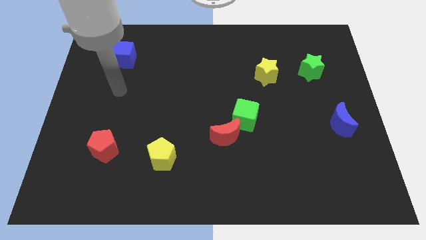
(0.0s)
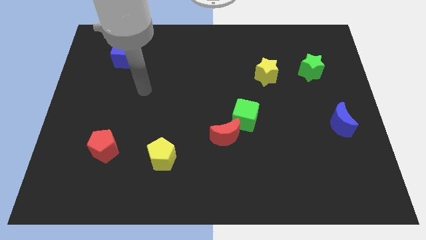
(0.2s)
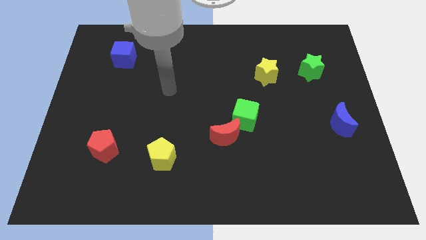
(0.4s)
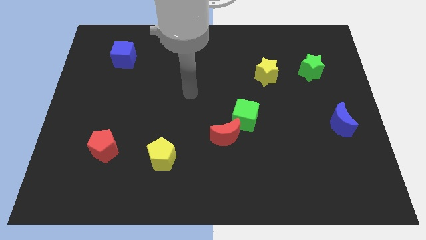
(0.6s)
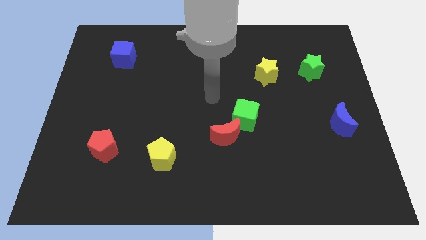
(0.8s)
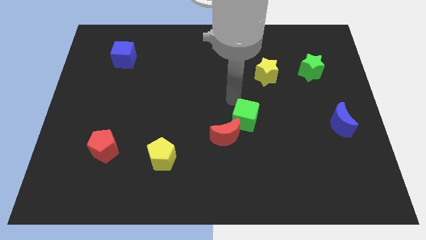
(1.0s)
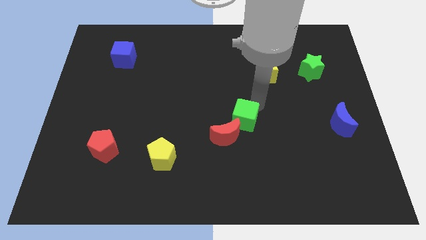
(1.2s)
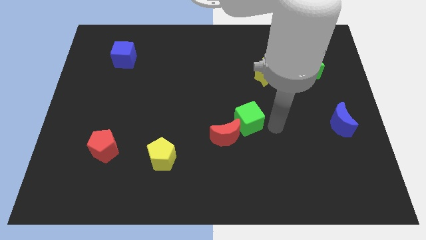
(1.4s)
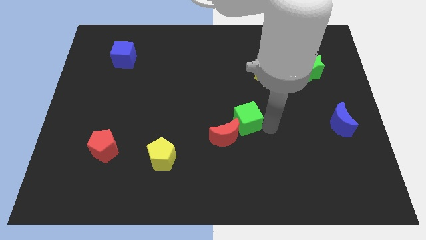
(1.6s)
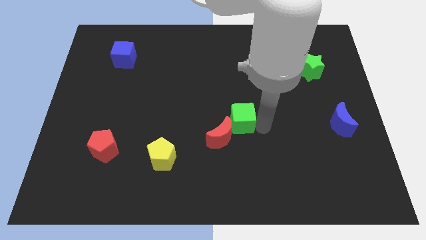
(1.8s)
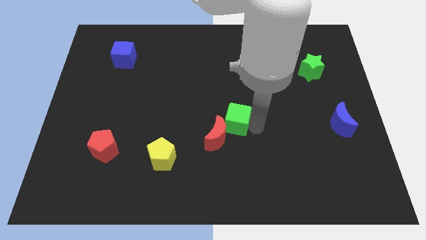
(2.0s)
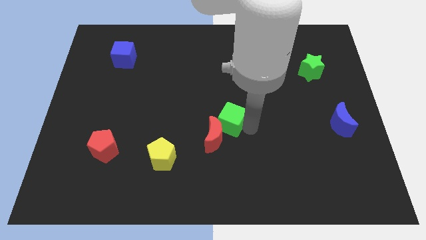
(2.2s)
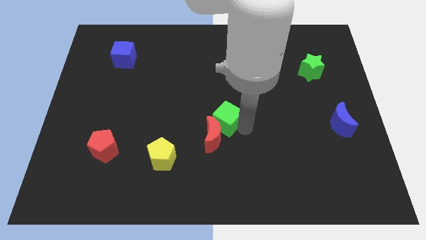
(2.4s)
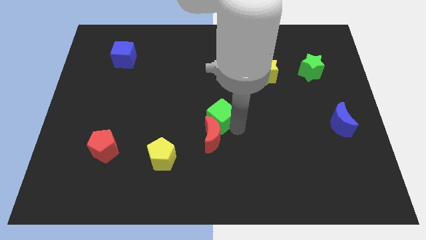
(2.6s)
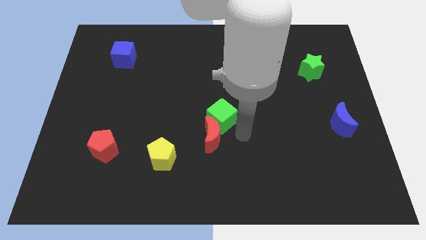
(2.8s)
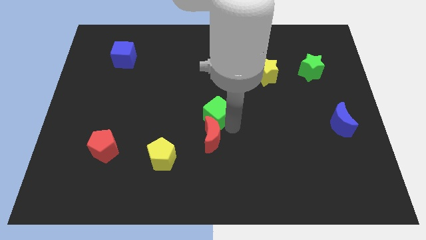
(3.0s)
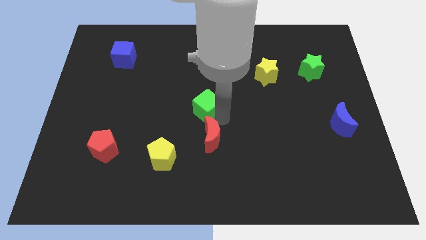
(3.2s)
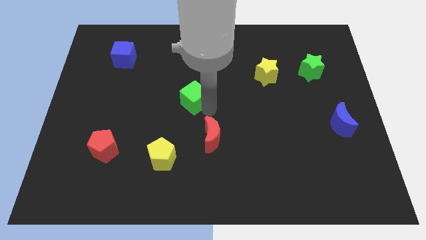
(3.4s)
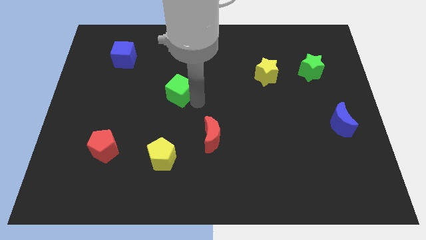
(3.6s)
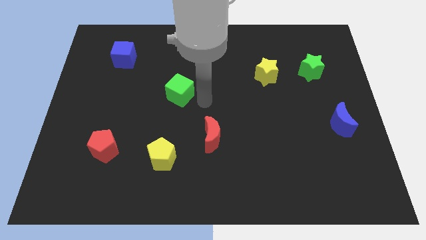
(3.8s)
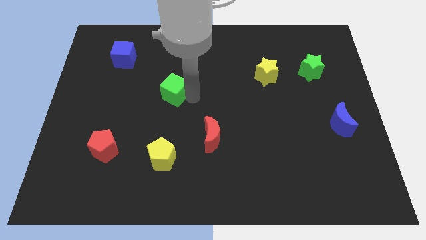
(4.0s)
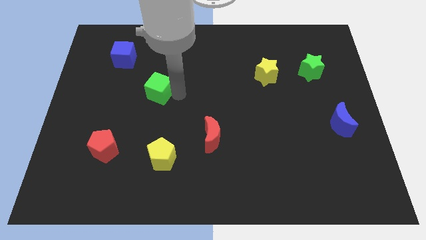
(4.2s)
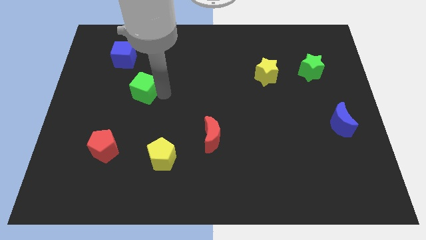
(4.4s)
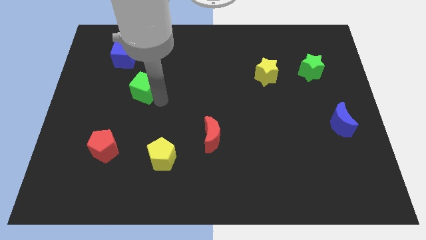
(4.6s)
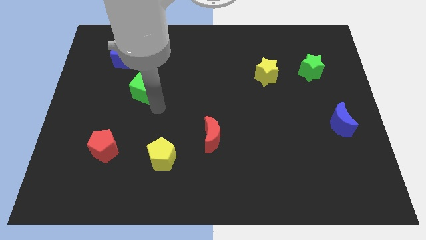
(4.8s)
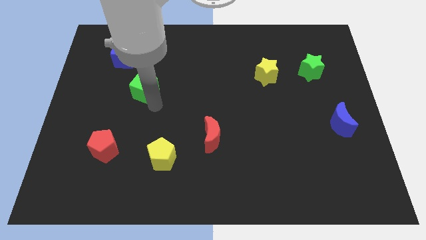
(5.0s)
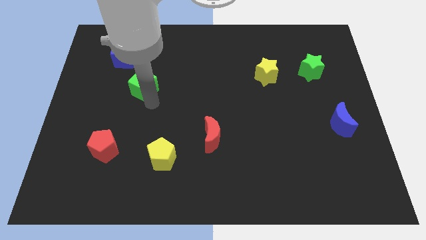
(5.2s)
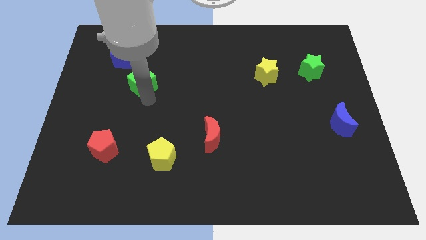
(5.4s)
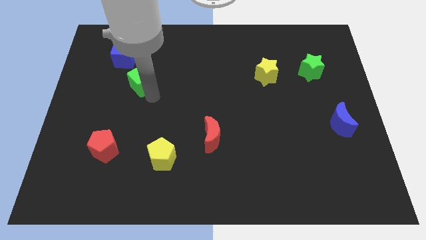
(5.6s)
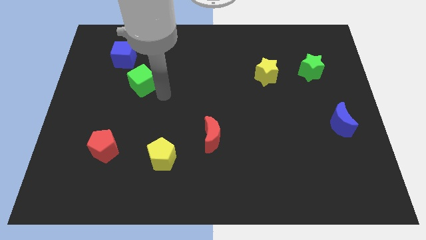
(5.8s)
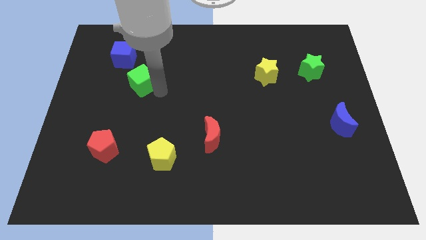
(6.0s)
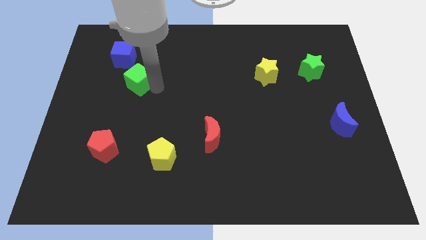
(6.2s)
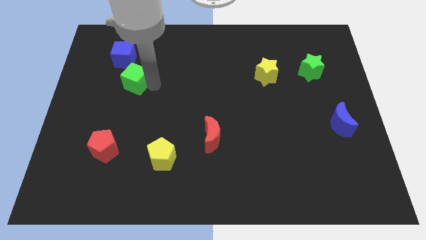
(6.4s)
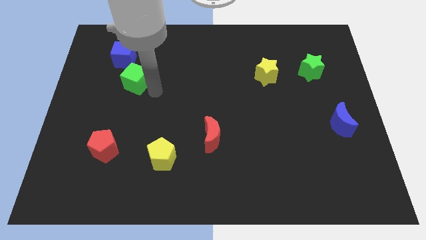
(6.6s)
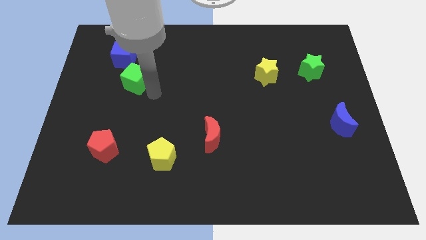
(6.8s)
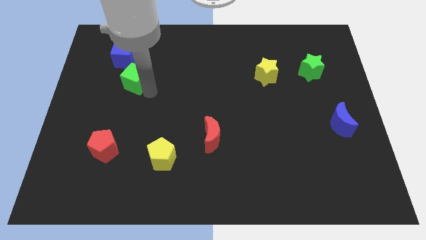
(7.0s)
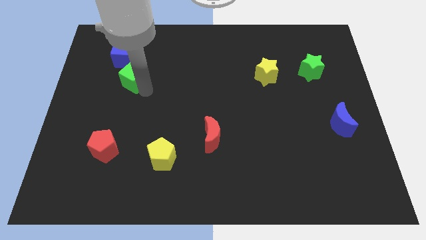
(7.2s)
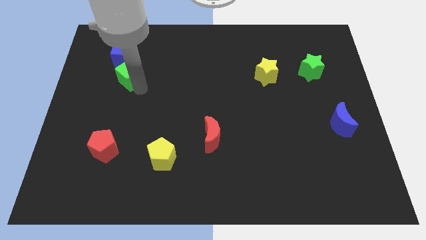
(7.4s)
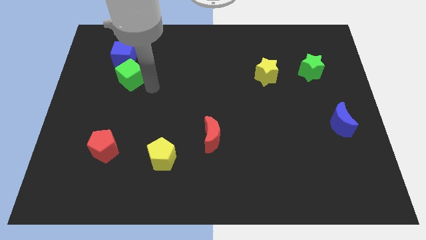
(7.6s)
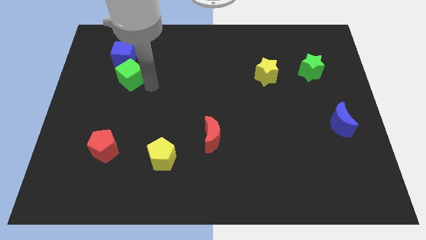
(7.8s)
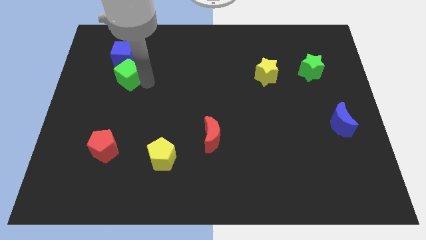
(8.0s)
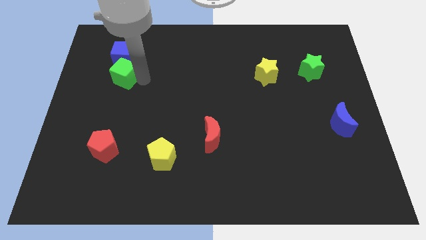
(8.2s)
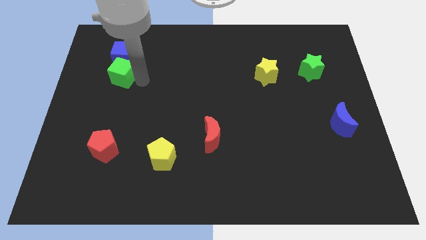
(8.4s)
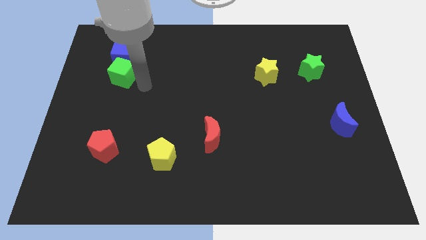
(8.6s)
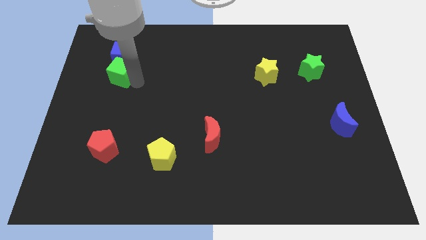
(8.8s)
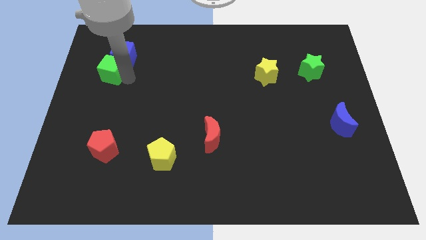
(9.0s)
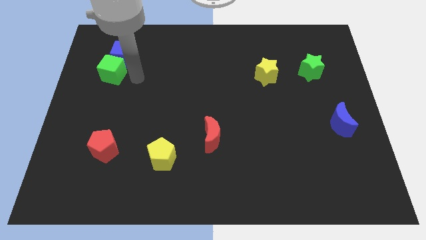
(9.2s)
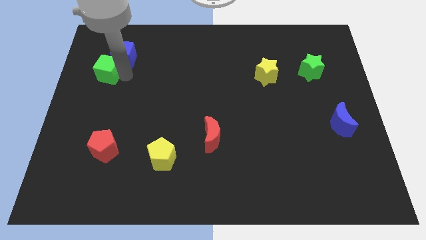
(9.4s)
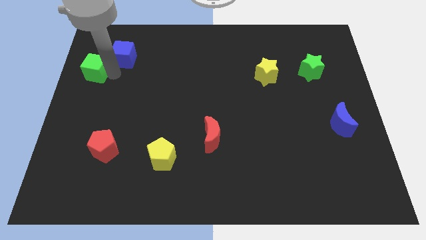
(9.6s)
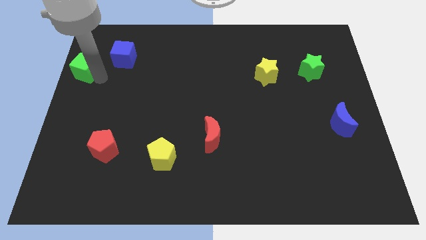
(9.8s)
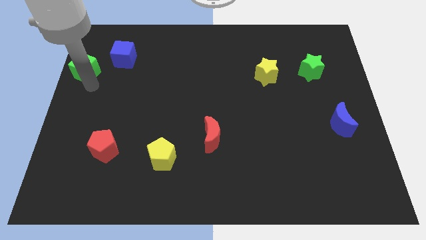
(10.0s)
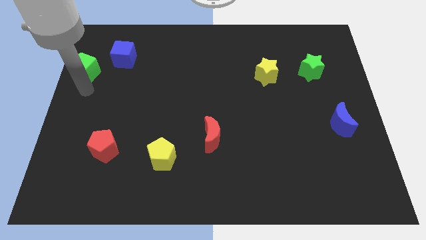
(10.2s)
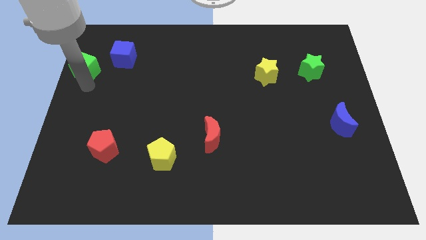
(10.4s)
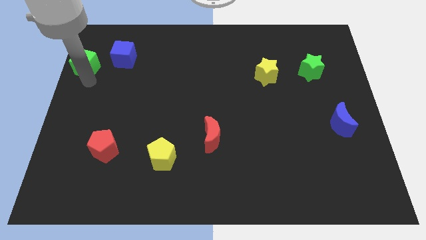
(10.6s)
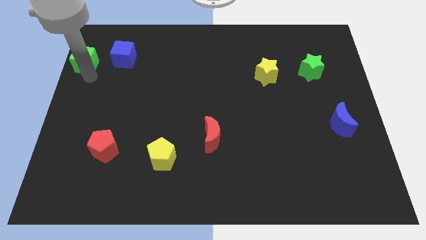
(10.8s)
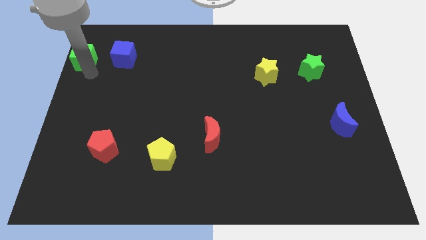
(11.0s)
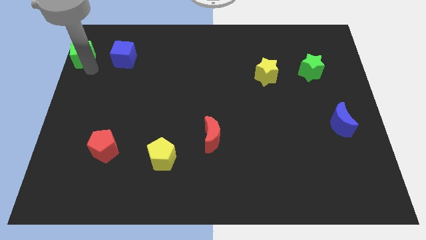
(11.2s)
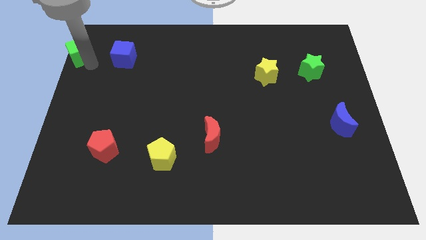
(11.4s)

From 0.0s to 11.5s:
put the green cube to the top left of the board

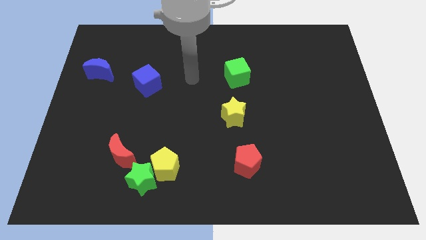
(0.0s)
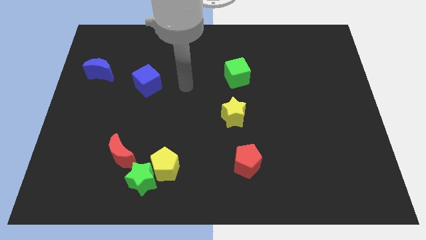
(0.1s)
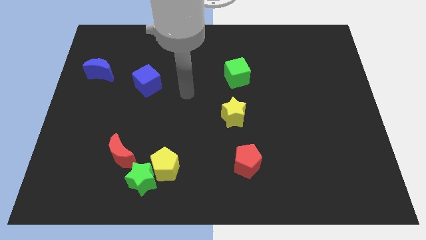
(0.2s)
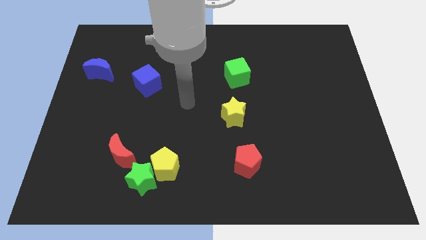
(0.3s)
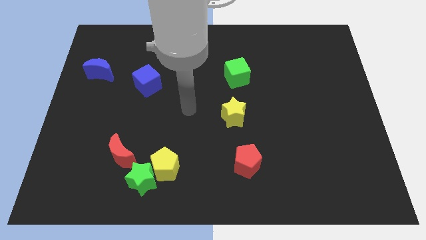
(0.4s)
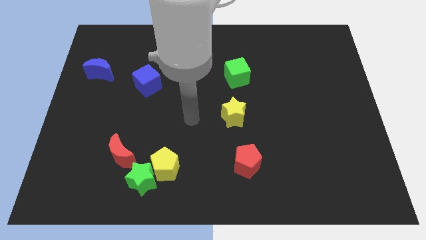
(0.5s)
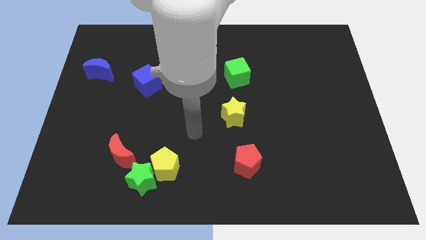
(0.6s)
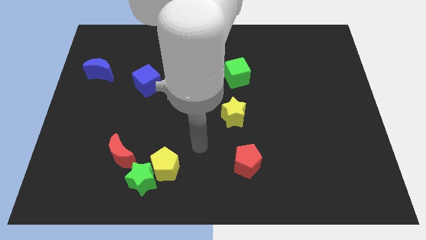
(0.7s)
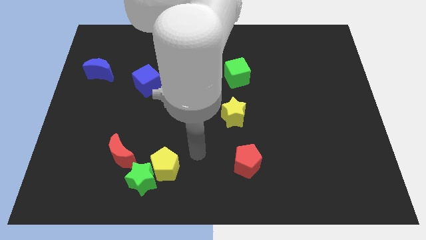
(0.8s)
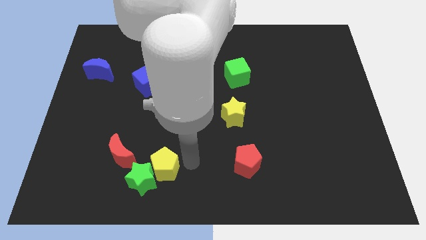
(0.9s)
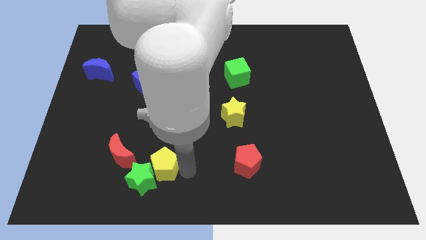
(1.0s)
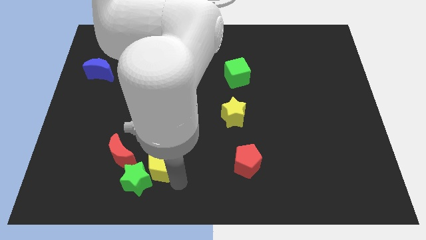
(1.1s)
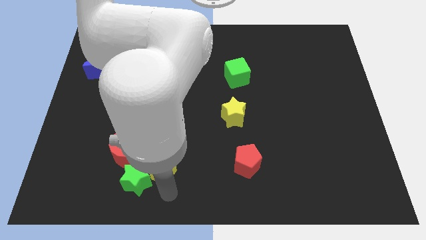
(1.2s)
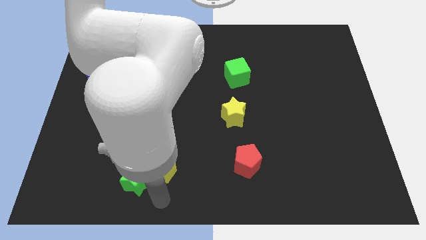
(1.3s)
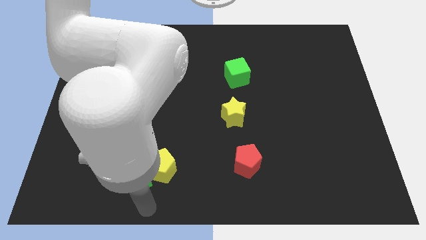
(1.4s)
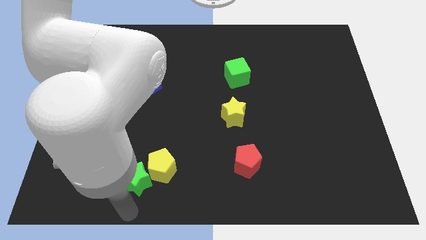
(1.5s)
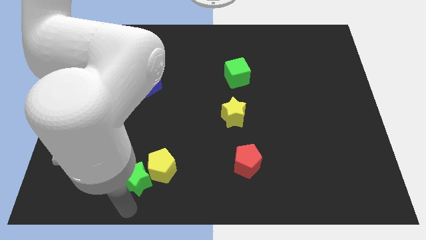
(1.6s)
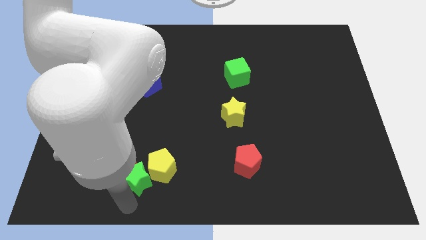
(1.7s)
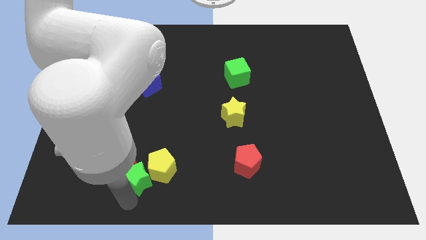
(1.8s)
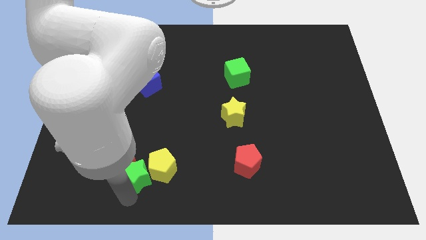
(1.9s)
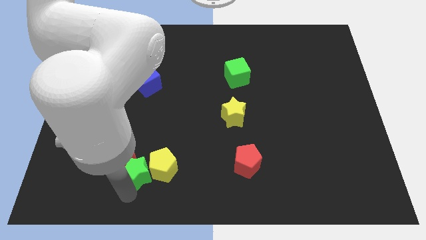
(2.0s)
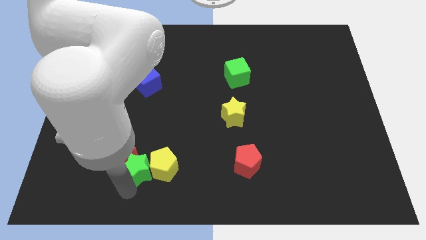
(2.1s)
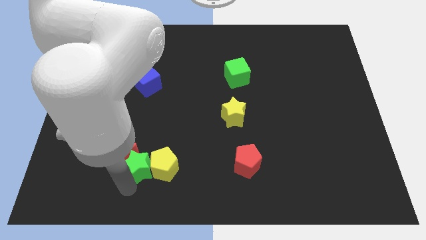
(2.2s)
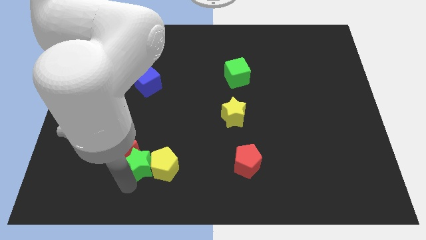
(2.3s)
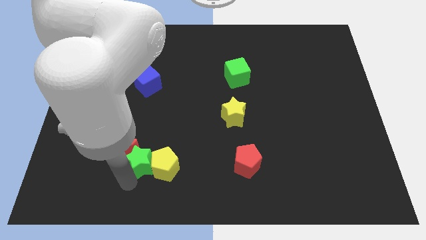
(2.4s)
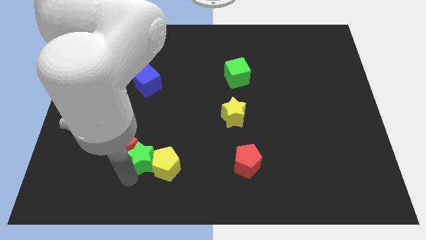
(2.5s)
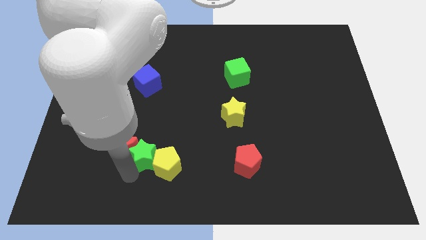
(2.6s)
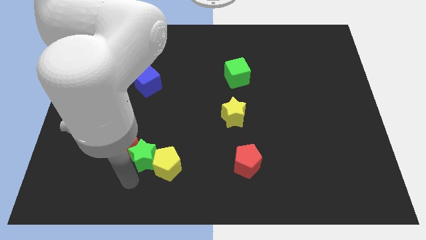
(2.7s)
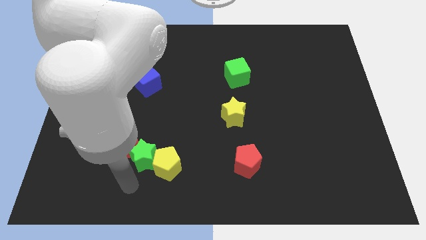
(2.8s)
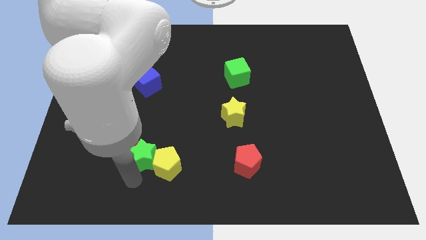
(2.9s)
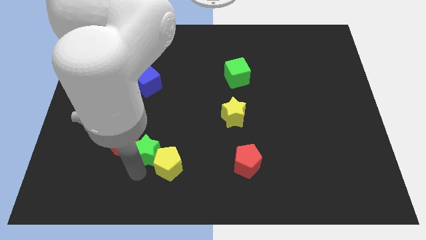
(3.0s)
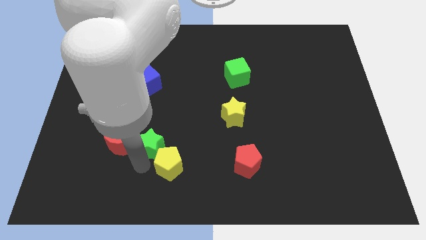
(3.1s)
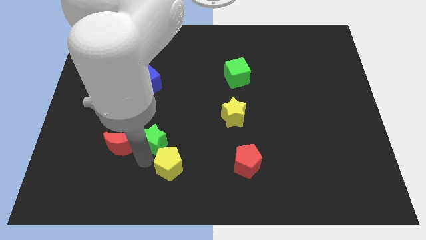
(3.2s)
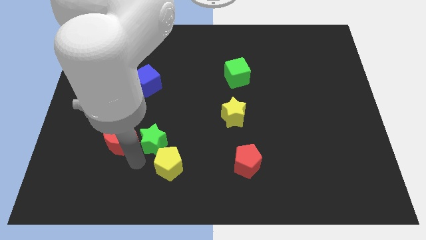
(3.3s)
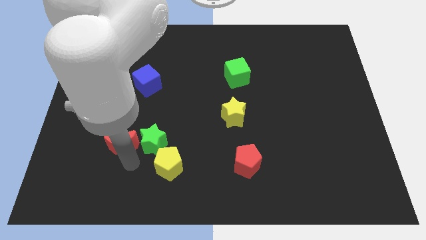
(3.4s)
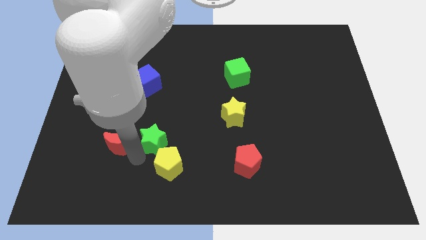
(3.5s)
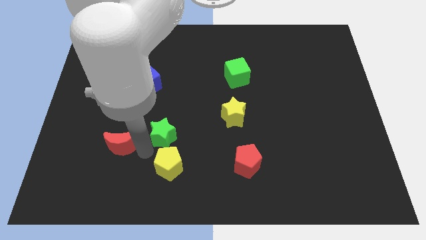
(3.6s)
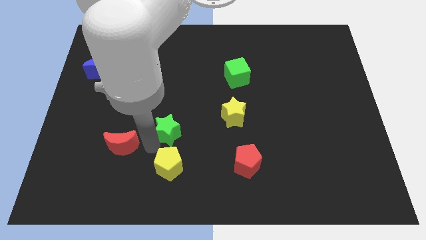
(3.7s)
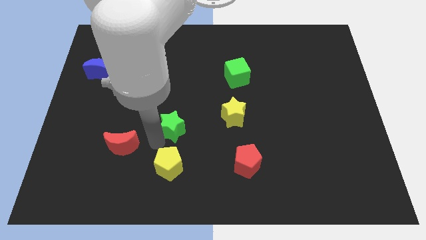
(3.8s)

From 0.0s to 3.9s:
put the green star to the center
